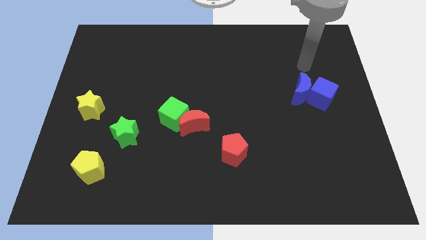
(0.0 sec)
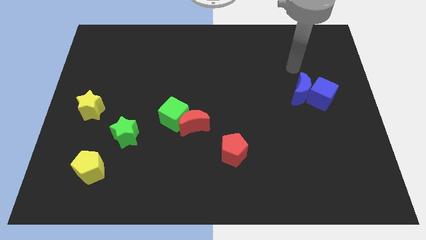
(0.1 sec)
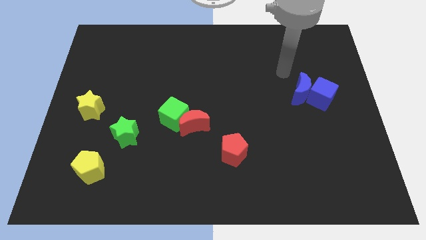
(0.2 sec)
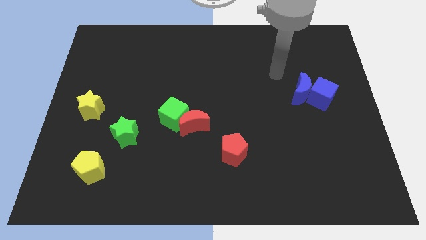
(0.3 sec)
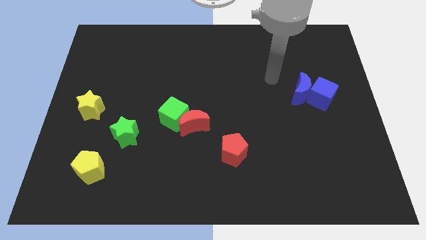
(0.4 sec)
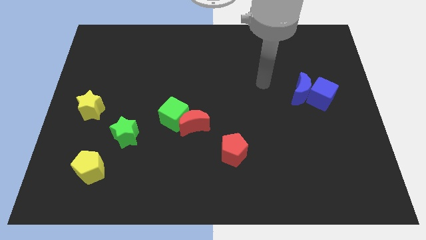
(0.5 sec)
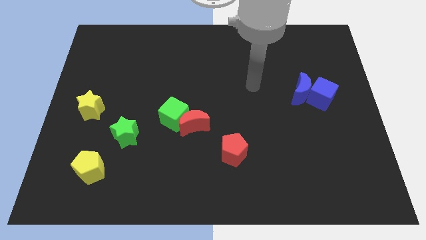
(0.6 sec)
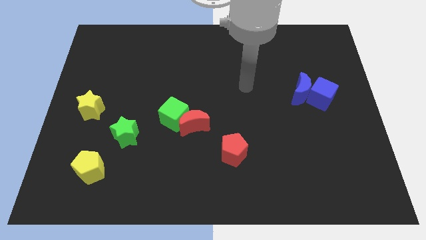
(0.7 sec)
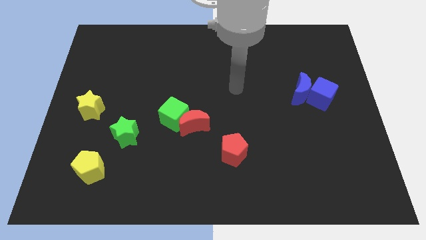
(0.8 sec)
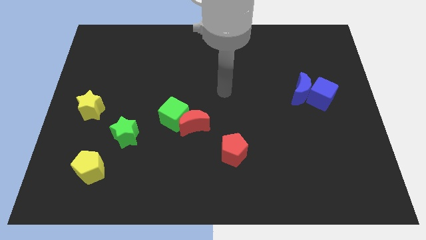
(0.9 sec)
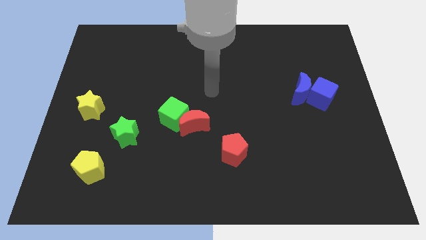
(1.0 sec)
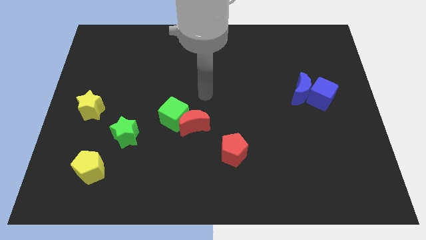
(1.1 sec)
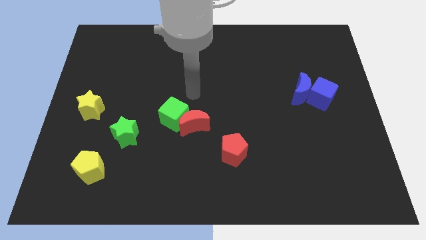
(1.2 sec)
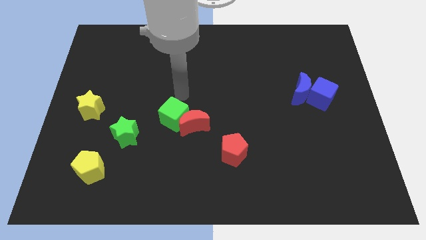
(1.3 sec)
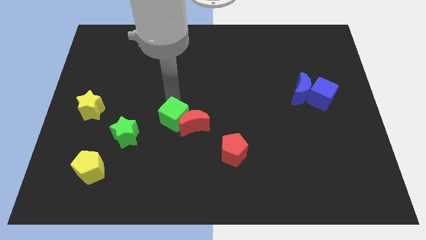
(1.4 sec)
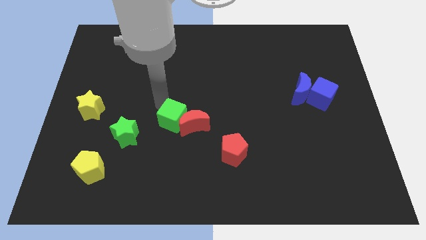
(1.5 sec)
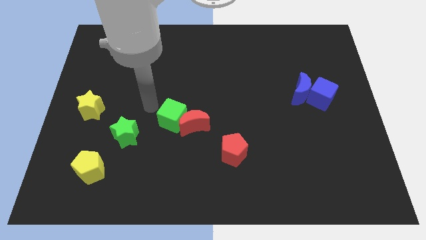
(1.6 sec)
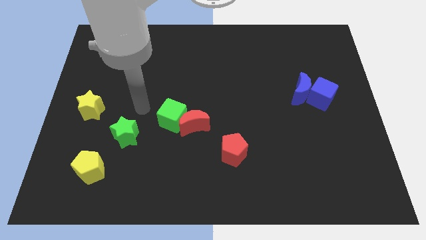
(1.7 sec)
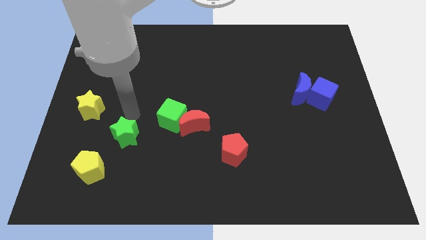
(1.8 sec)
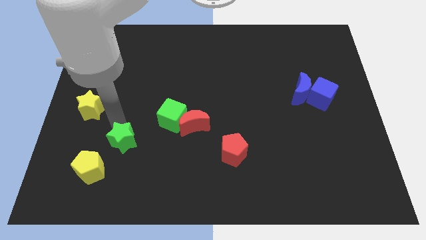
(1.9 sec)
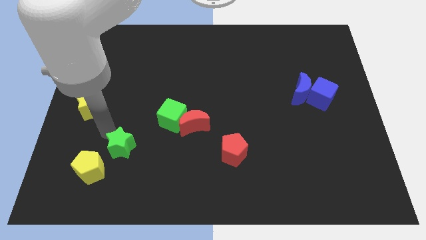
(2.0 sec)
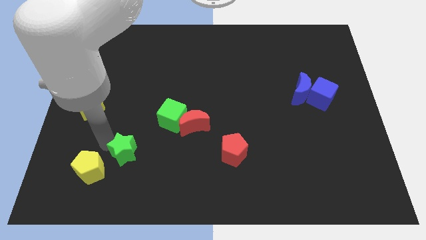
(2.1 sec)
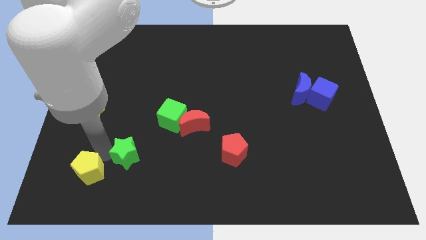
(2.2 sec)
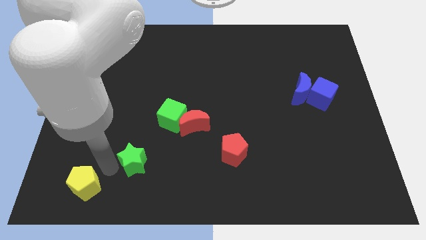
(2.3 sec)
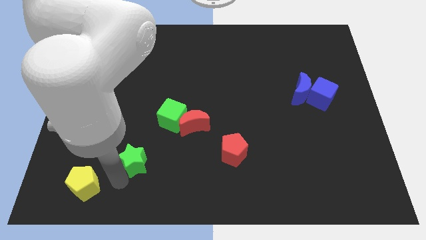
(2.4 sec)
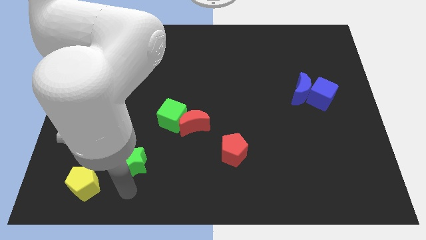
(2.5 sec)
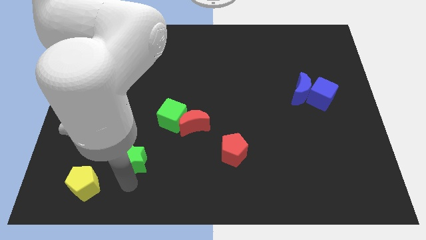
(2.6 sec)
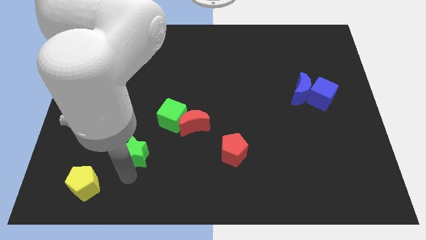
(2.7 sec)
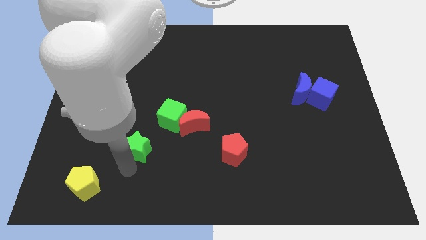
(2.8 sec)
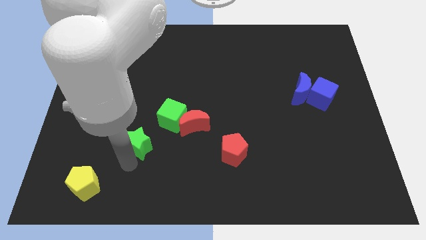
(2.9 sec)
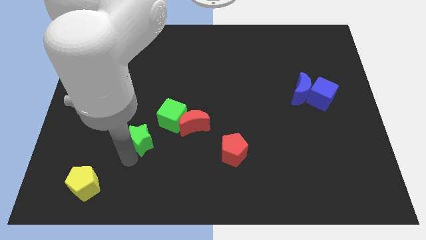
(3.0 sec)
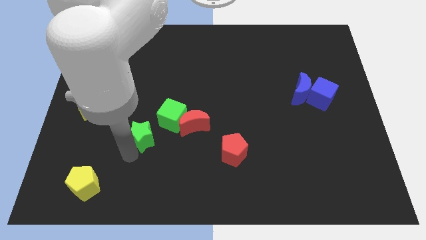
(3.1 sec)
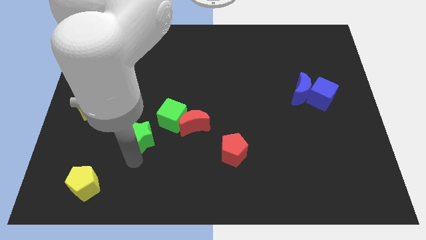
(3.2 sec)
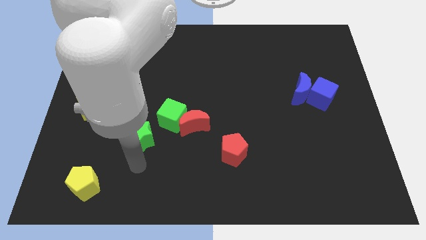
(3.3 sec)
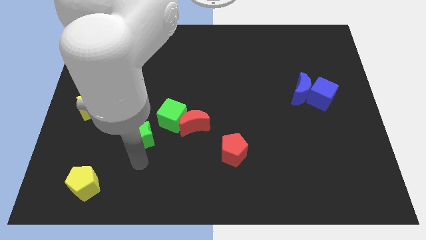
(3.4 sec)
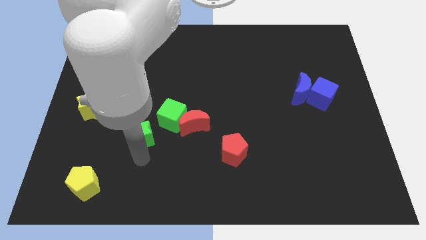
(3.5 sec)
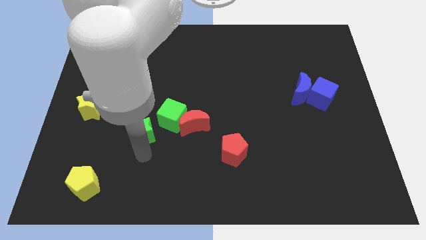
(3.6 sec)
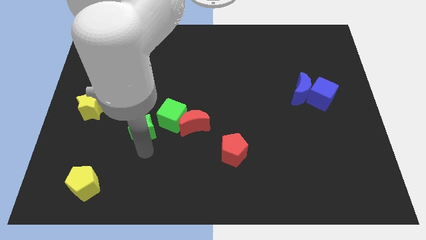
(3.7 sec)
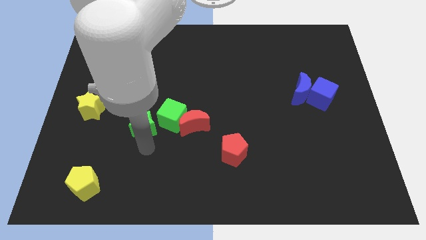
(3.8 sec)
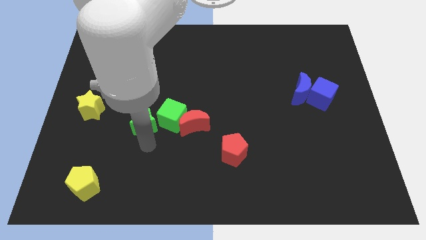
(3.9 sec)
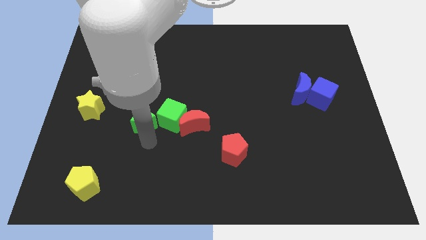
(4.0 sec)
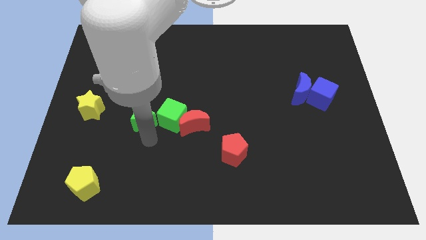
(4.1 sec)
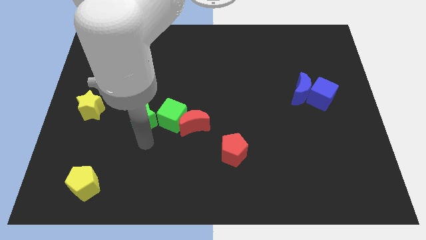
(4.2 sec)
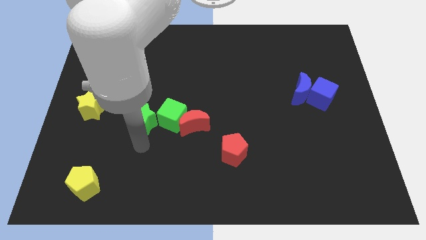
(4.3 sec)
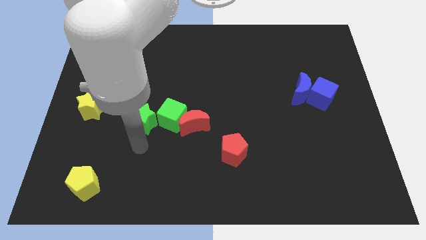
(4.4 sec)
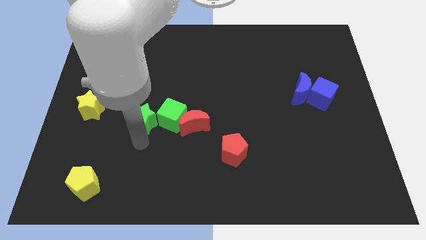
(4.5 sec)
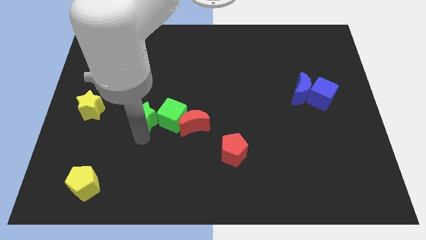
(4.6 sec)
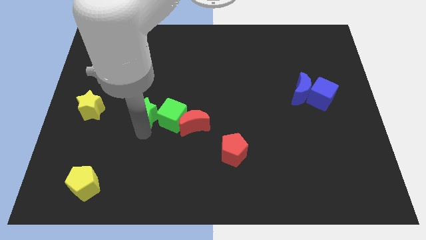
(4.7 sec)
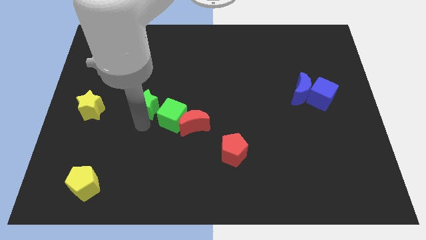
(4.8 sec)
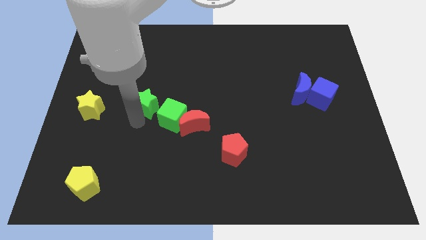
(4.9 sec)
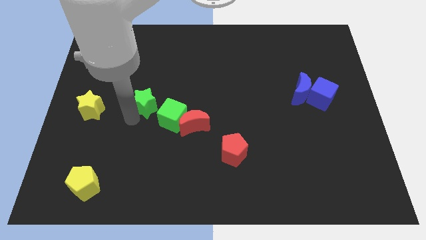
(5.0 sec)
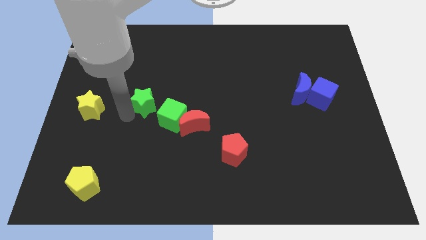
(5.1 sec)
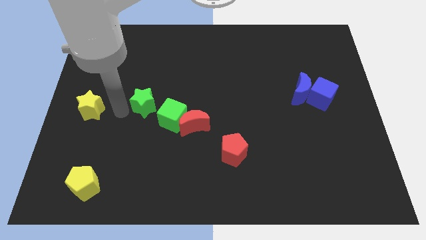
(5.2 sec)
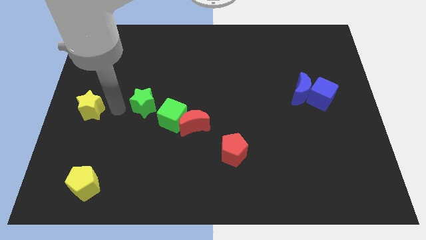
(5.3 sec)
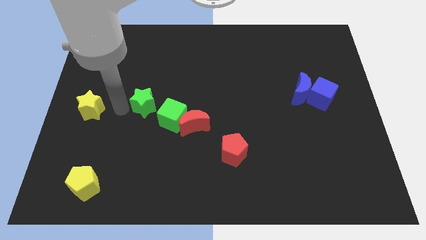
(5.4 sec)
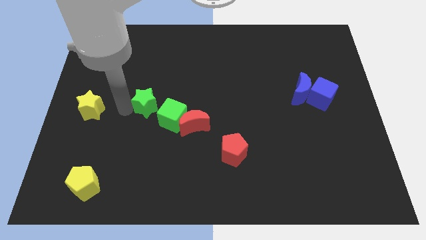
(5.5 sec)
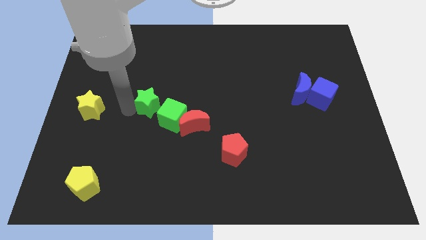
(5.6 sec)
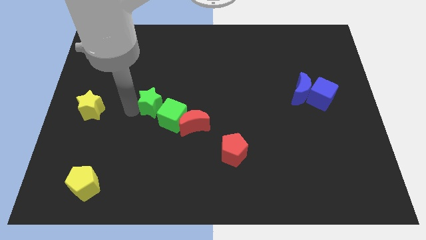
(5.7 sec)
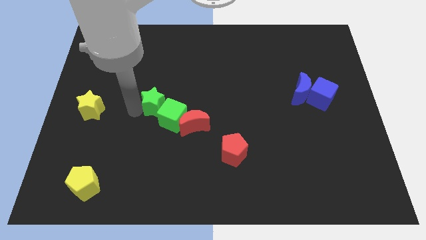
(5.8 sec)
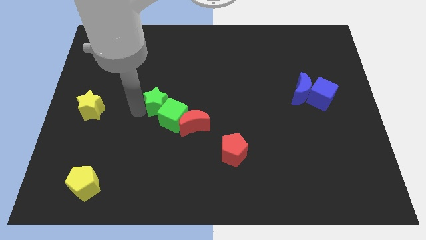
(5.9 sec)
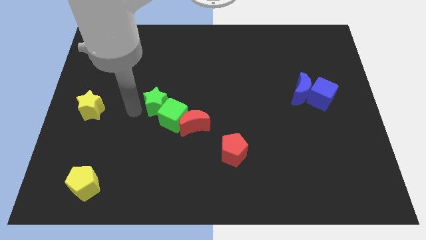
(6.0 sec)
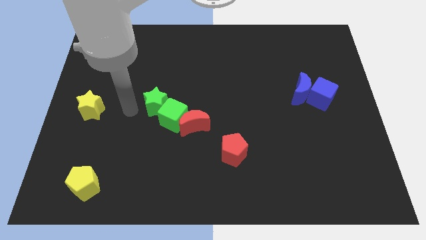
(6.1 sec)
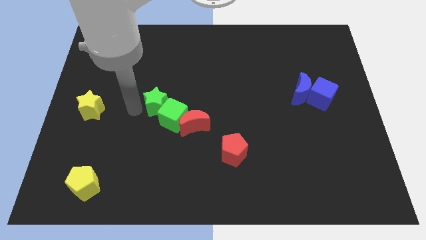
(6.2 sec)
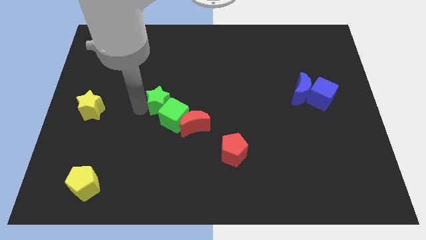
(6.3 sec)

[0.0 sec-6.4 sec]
move the green star to the center

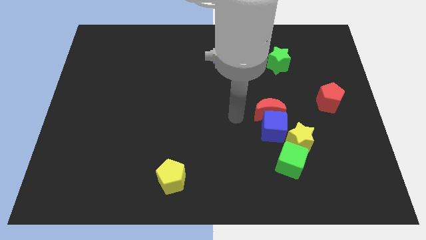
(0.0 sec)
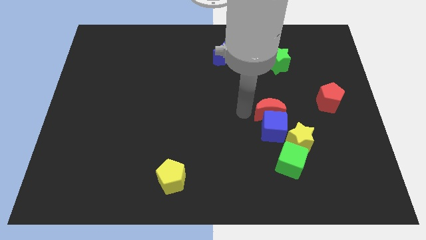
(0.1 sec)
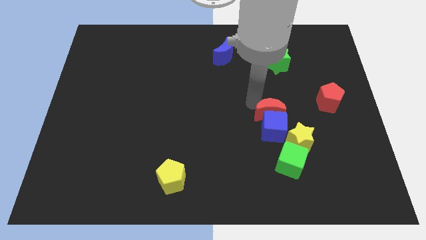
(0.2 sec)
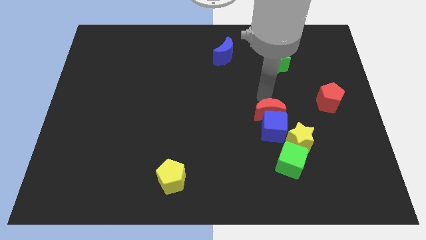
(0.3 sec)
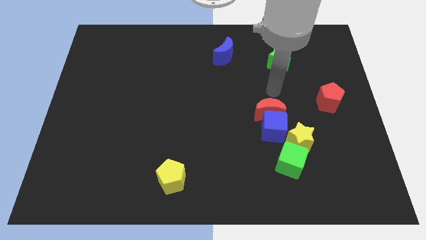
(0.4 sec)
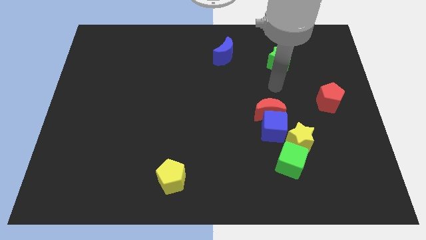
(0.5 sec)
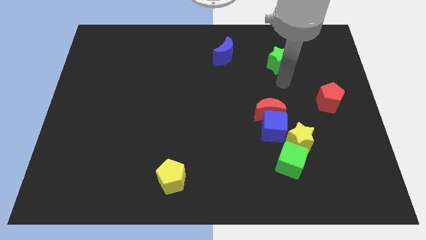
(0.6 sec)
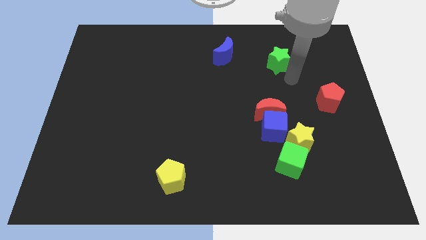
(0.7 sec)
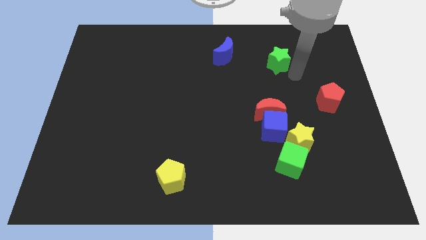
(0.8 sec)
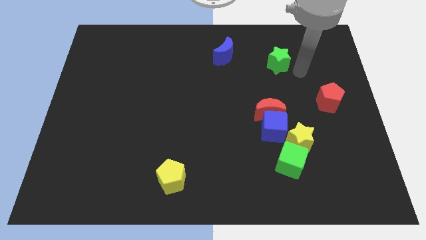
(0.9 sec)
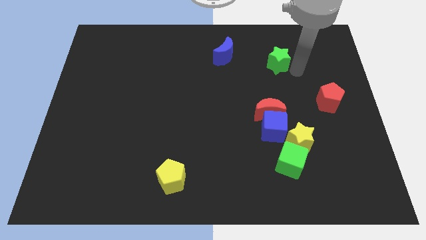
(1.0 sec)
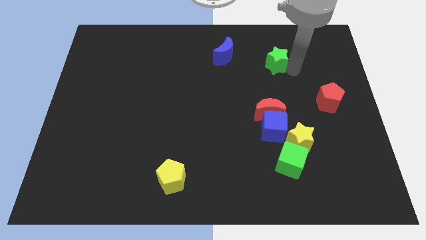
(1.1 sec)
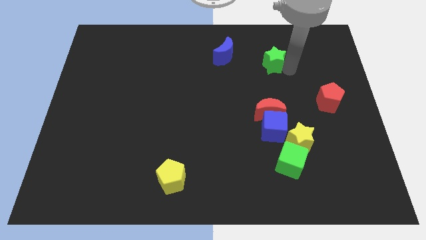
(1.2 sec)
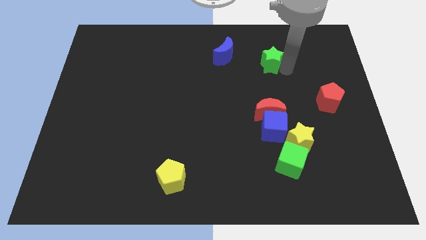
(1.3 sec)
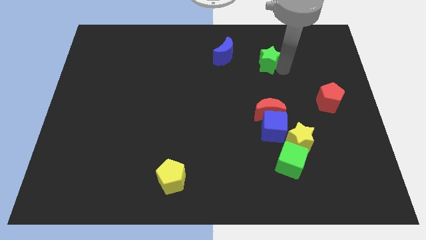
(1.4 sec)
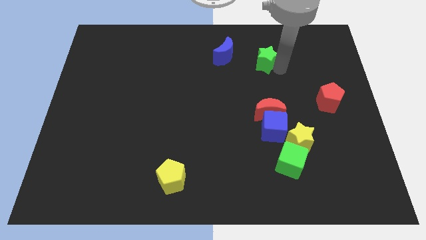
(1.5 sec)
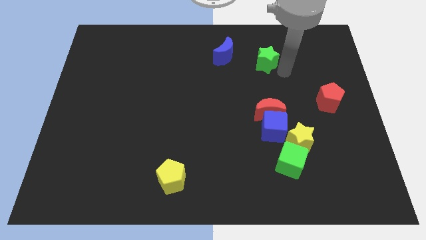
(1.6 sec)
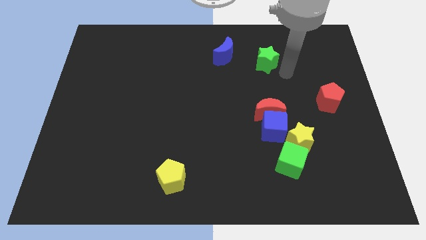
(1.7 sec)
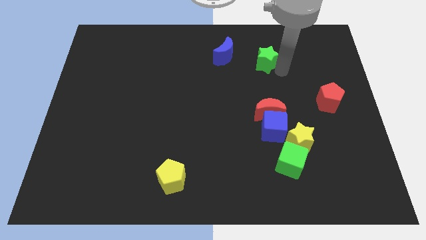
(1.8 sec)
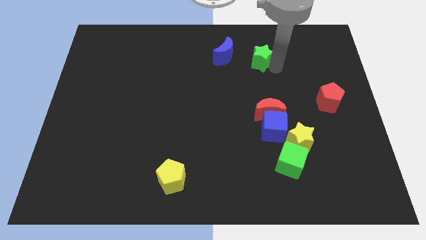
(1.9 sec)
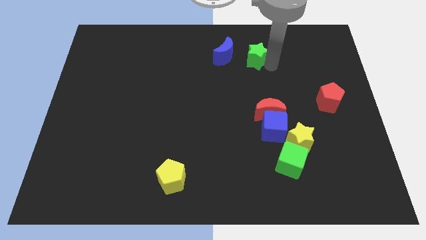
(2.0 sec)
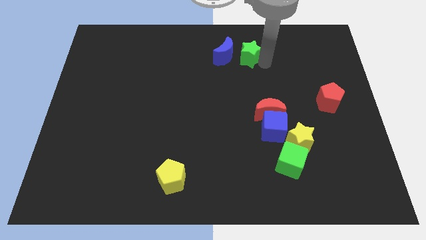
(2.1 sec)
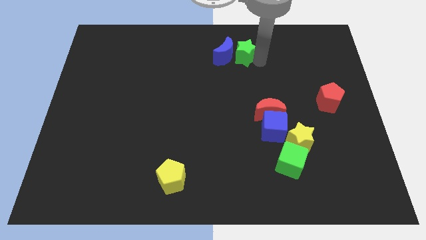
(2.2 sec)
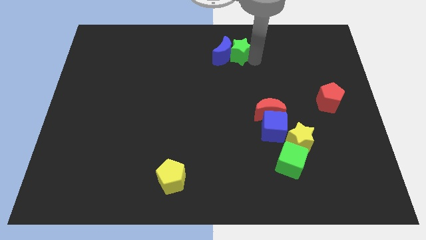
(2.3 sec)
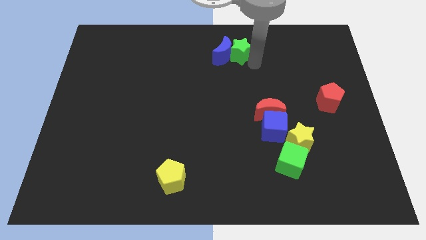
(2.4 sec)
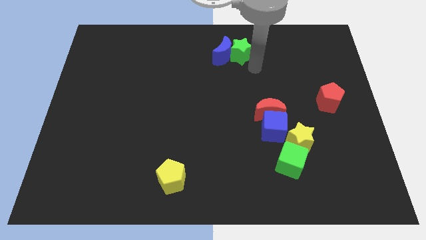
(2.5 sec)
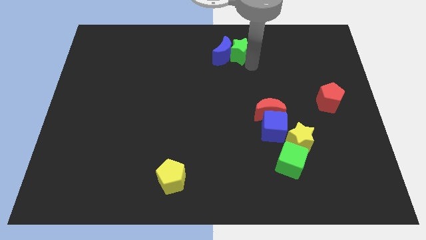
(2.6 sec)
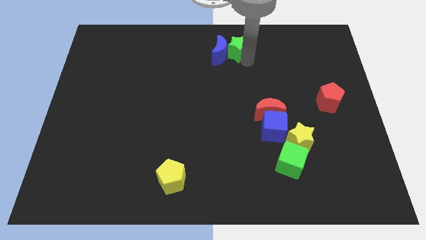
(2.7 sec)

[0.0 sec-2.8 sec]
slide the green star to the top side
